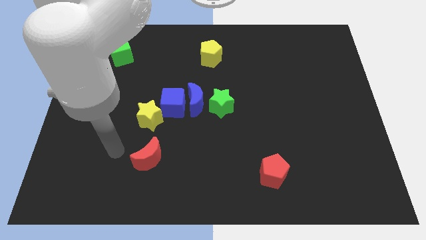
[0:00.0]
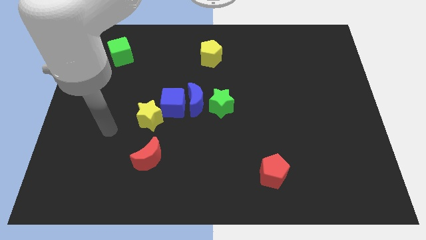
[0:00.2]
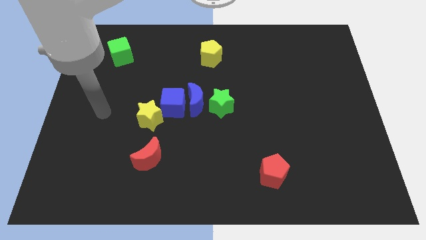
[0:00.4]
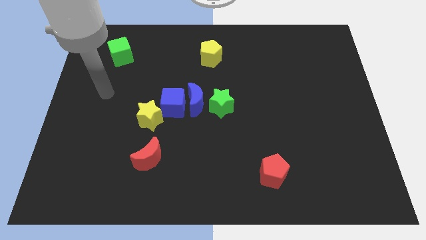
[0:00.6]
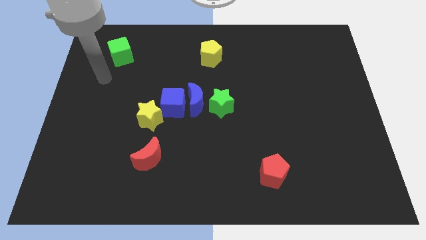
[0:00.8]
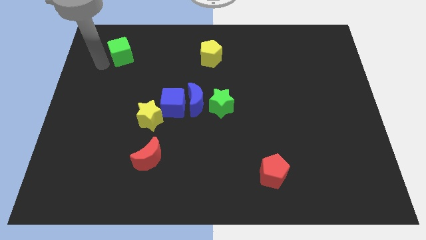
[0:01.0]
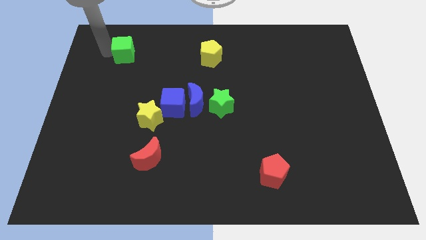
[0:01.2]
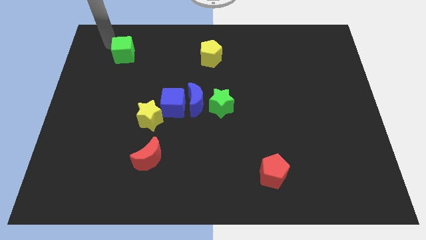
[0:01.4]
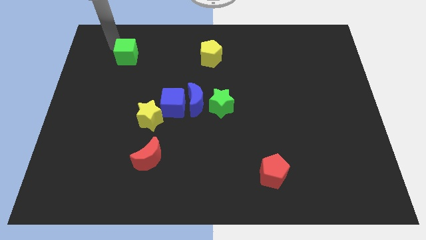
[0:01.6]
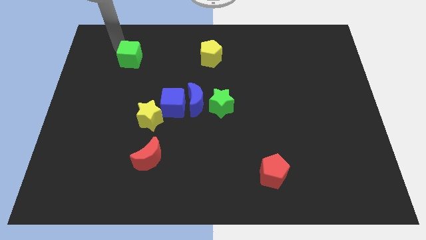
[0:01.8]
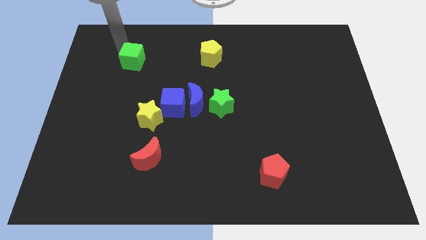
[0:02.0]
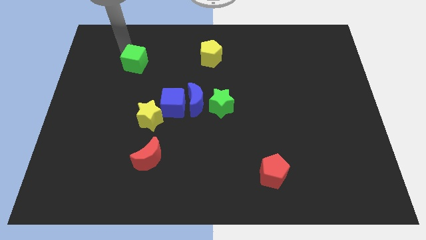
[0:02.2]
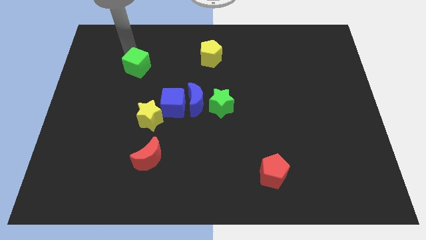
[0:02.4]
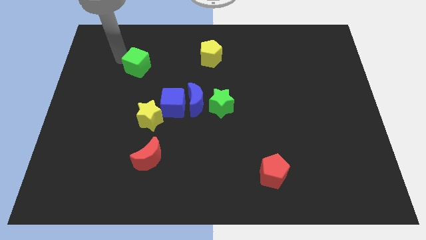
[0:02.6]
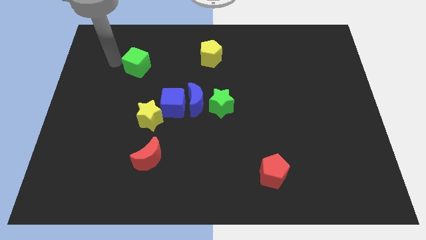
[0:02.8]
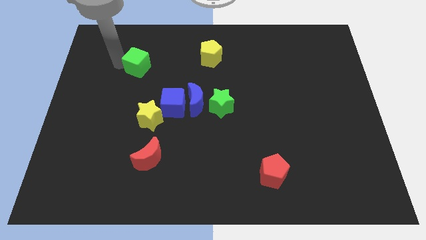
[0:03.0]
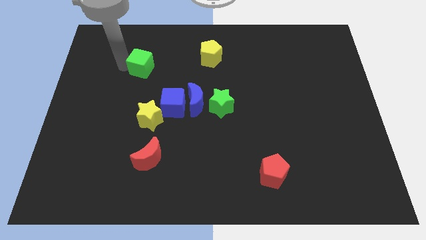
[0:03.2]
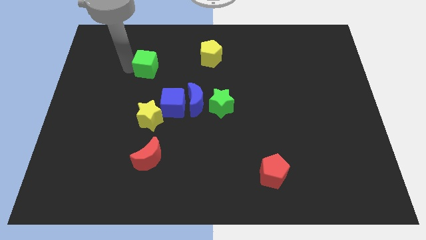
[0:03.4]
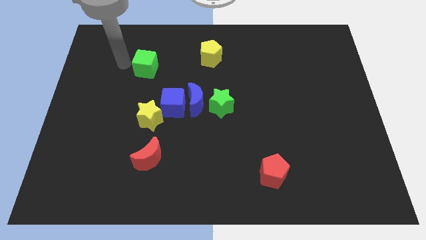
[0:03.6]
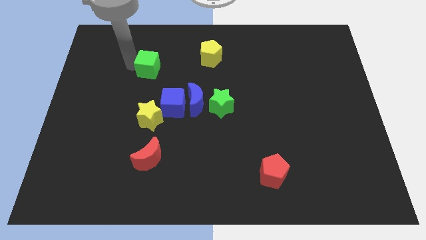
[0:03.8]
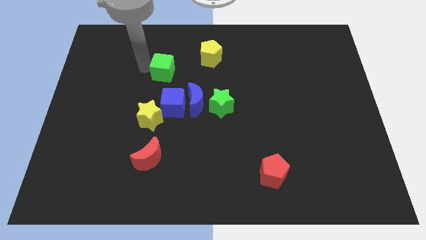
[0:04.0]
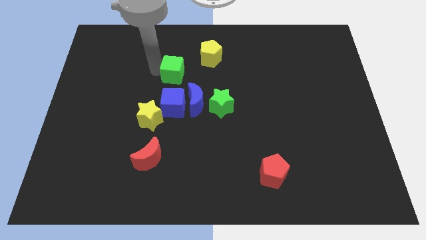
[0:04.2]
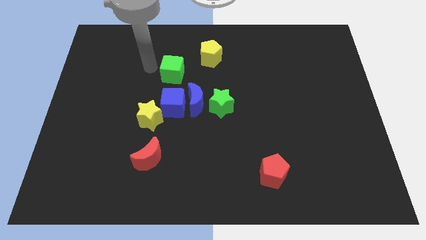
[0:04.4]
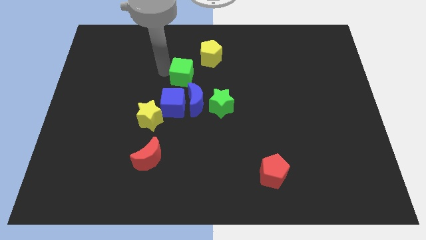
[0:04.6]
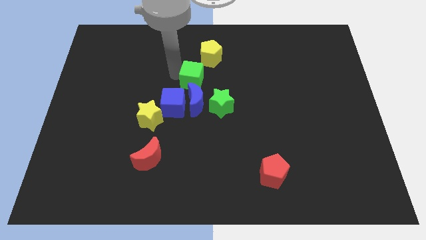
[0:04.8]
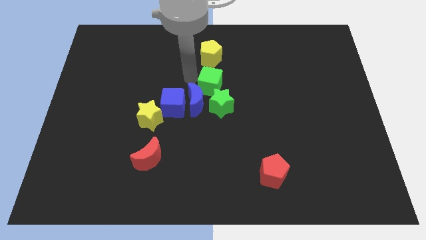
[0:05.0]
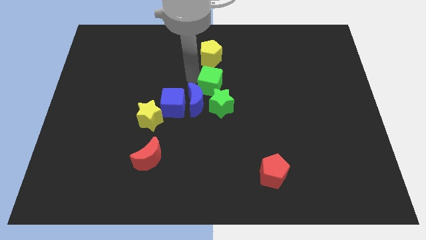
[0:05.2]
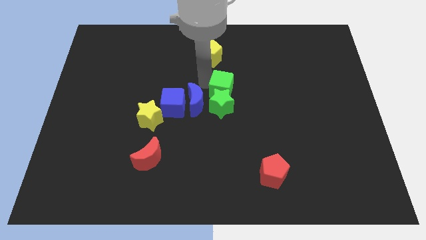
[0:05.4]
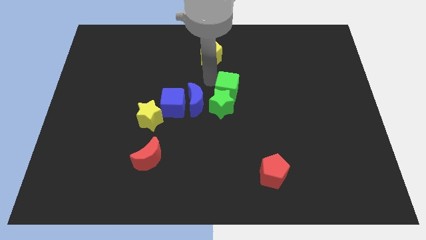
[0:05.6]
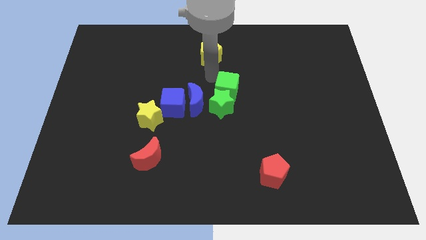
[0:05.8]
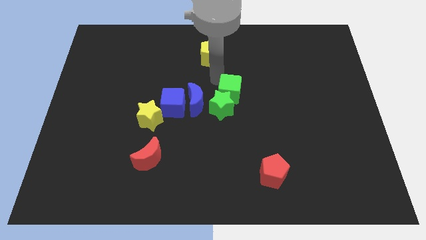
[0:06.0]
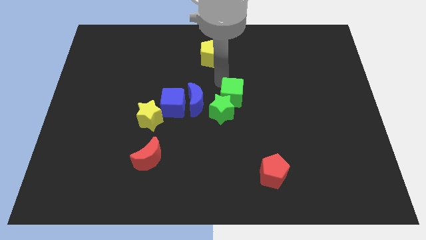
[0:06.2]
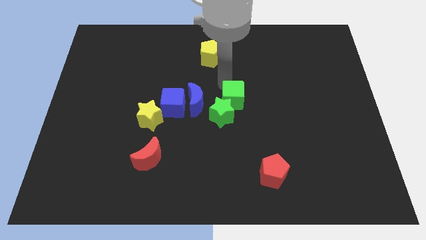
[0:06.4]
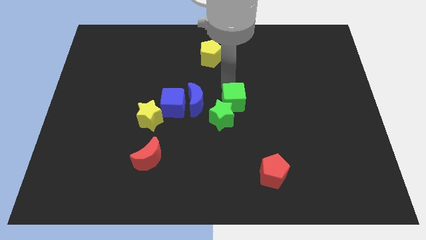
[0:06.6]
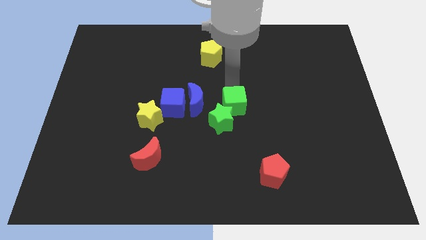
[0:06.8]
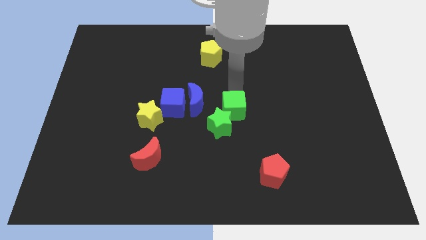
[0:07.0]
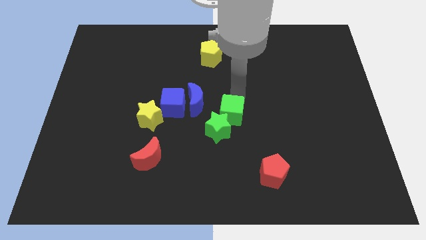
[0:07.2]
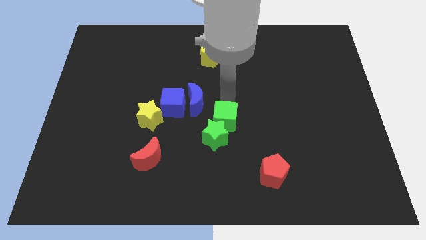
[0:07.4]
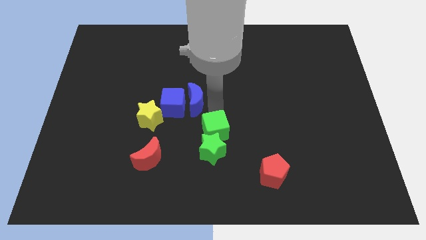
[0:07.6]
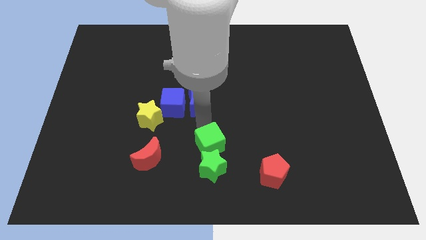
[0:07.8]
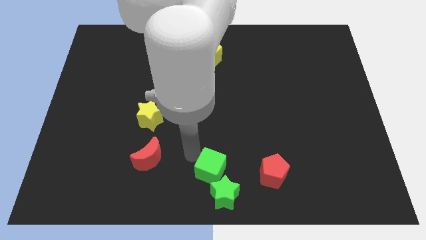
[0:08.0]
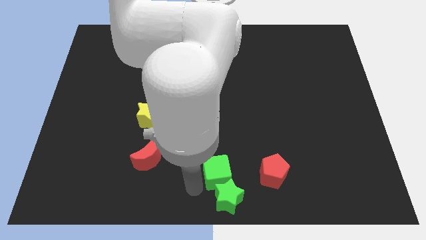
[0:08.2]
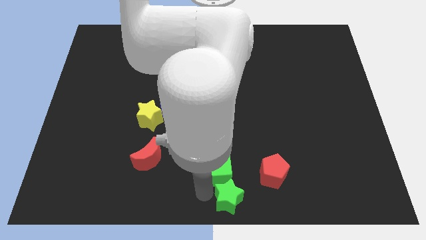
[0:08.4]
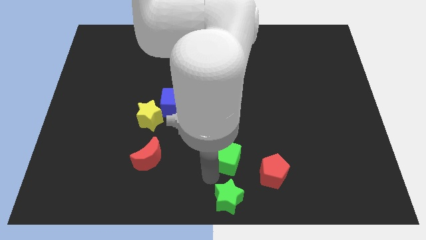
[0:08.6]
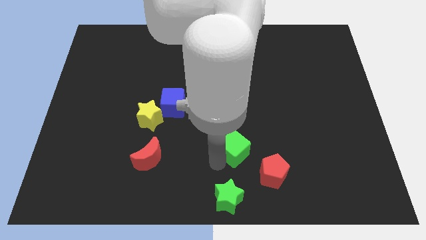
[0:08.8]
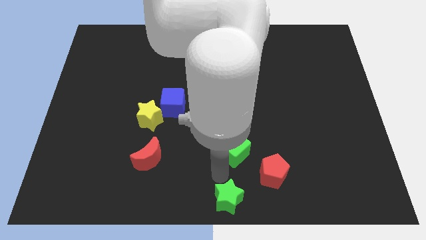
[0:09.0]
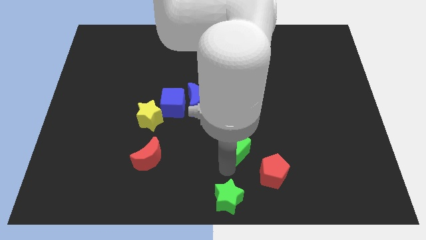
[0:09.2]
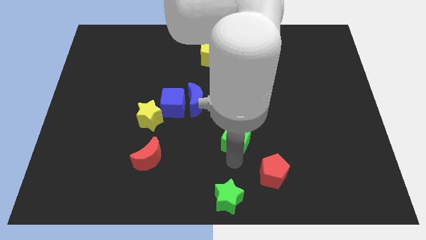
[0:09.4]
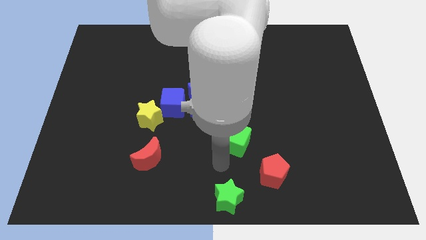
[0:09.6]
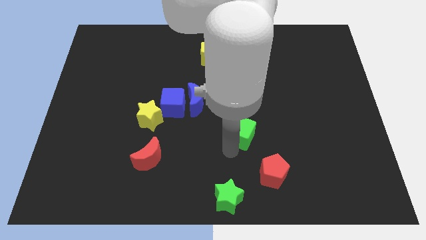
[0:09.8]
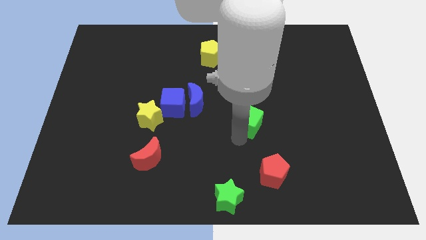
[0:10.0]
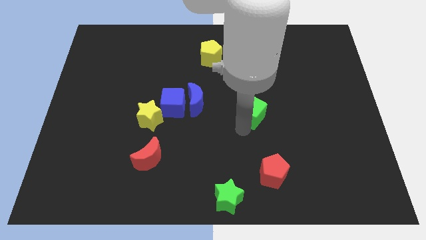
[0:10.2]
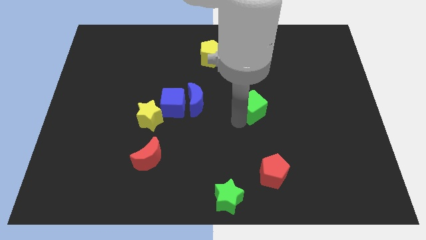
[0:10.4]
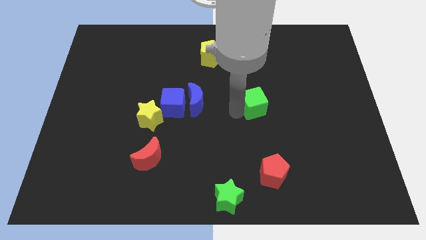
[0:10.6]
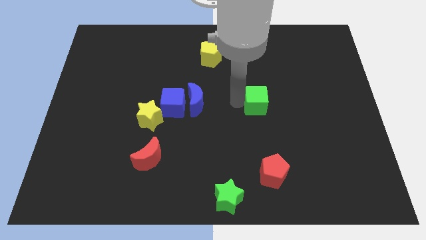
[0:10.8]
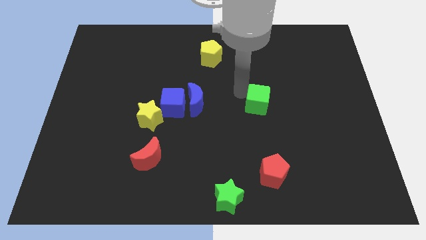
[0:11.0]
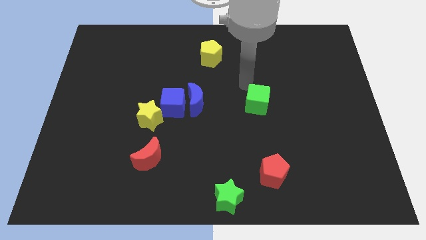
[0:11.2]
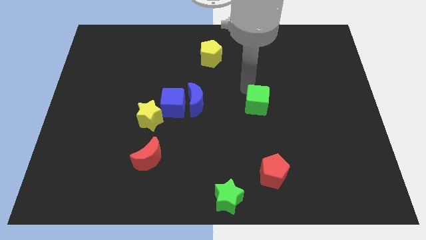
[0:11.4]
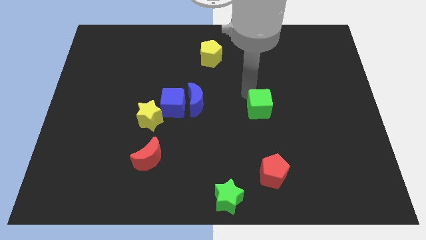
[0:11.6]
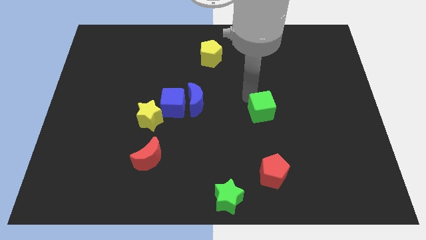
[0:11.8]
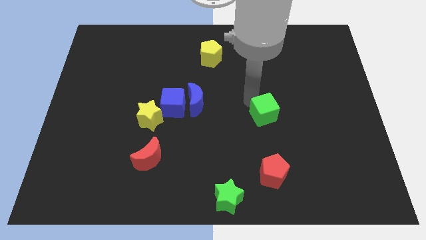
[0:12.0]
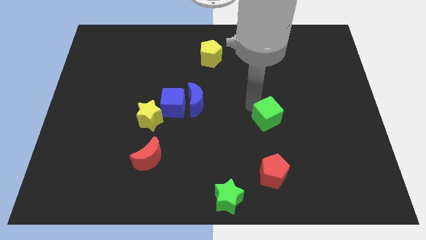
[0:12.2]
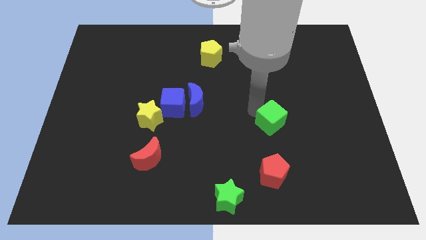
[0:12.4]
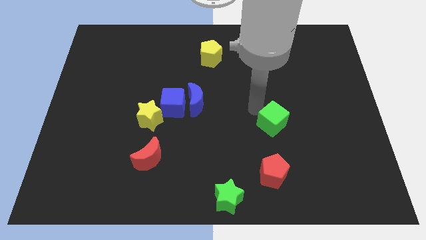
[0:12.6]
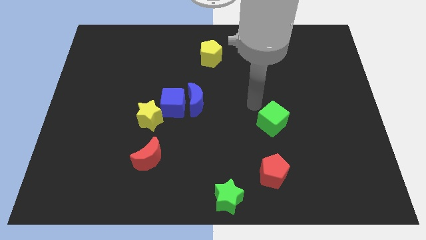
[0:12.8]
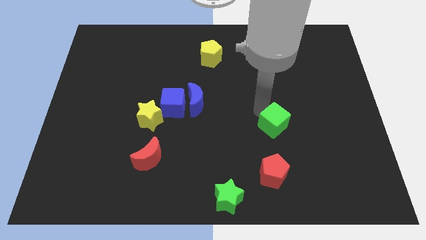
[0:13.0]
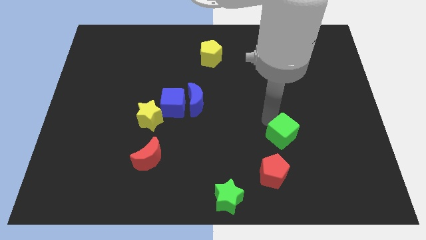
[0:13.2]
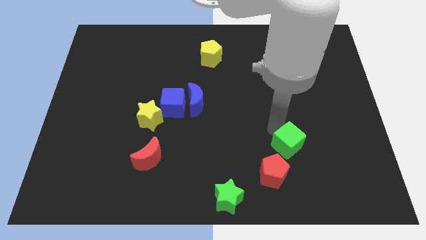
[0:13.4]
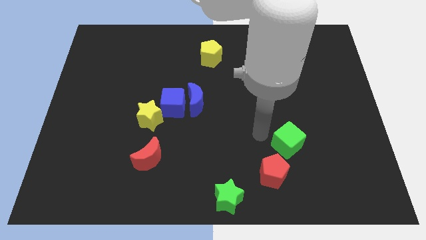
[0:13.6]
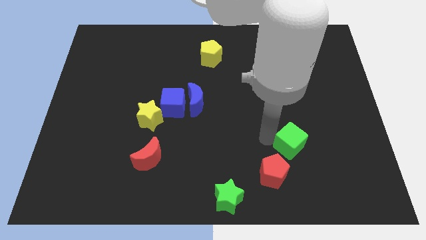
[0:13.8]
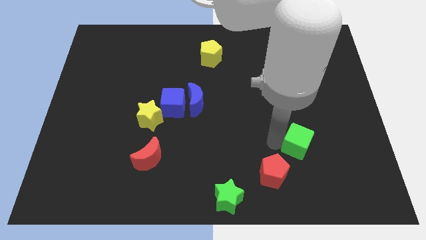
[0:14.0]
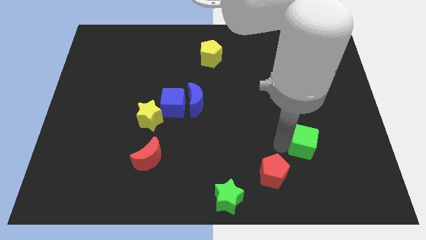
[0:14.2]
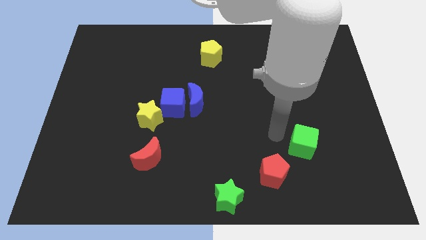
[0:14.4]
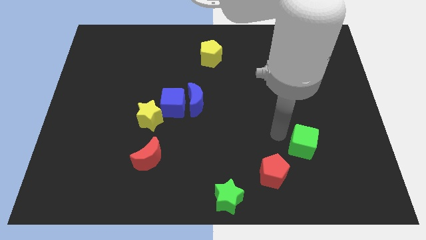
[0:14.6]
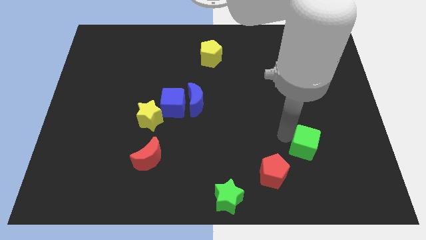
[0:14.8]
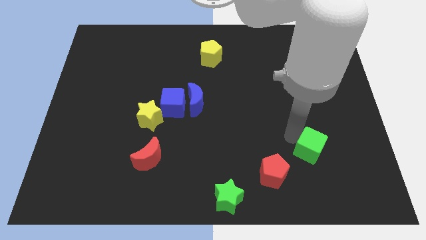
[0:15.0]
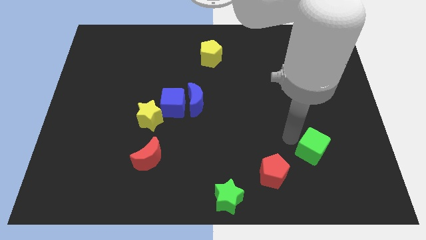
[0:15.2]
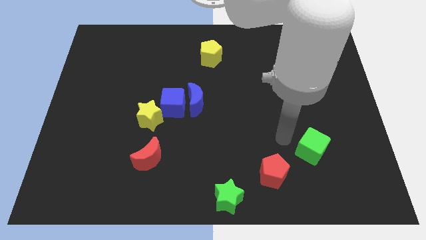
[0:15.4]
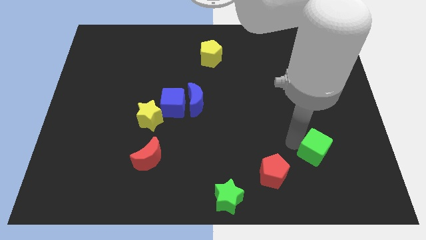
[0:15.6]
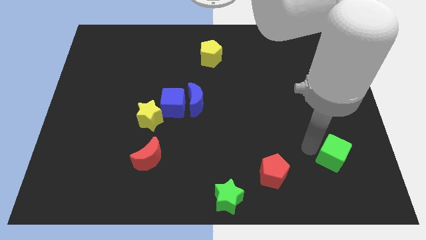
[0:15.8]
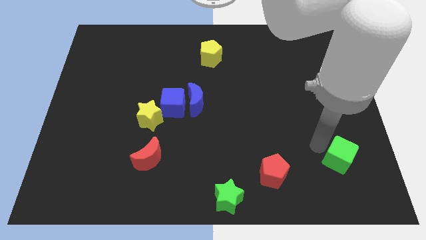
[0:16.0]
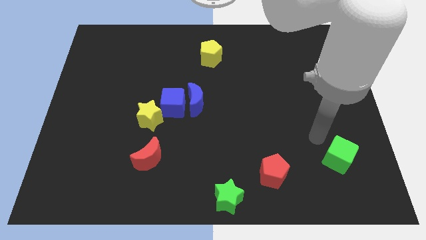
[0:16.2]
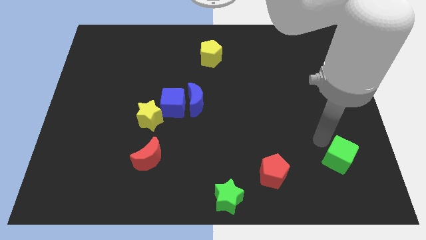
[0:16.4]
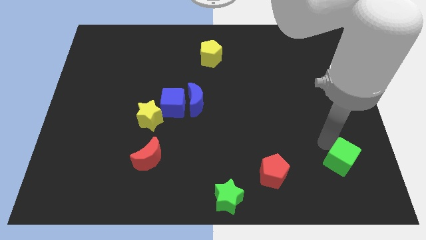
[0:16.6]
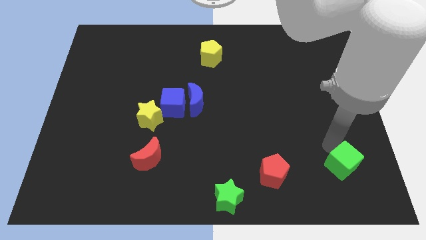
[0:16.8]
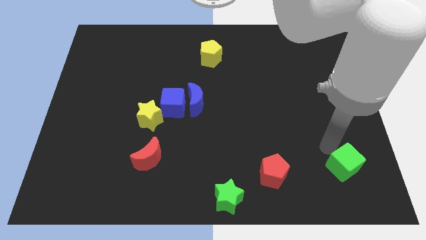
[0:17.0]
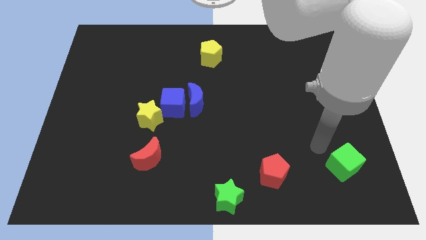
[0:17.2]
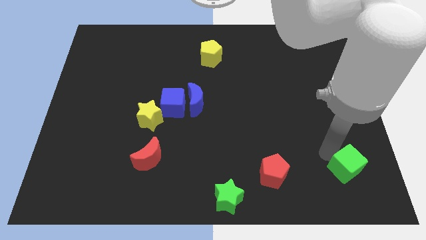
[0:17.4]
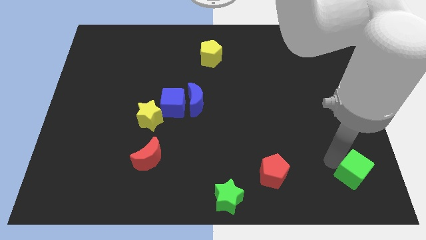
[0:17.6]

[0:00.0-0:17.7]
push the green cube to the bottom right corner
